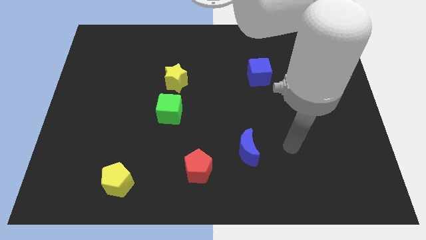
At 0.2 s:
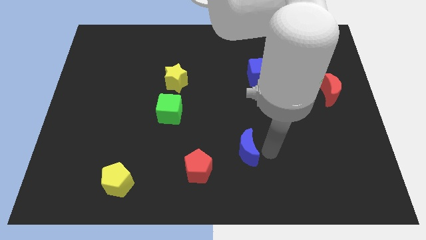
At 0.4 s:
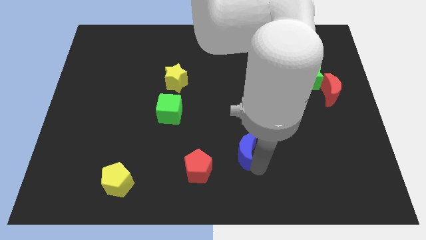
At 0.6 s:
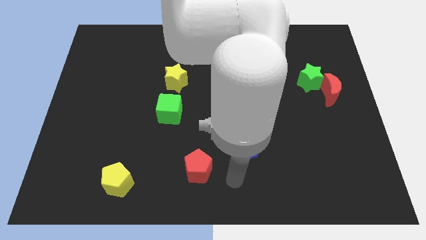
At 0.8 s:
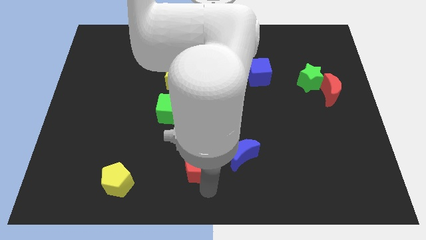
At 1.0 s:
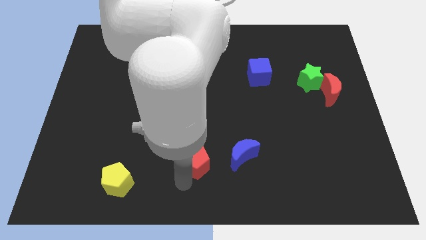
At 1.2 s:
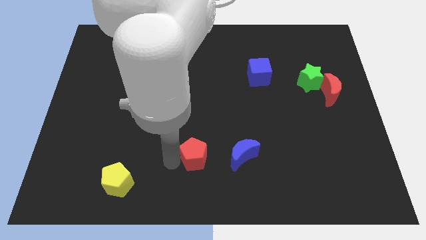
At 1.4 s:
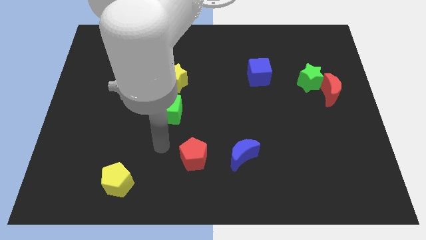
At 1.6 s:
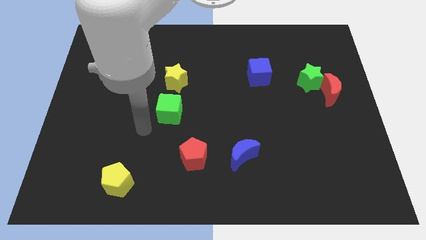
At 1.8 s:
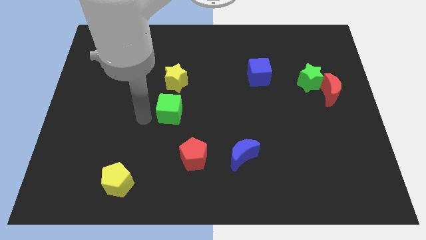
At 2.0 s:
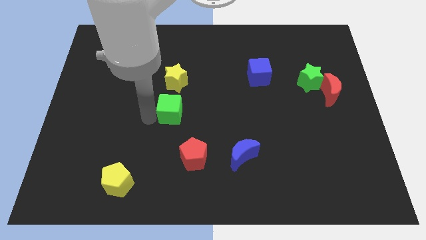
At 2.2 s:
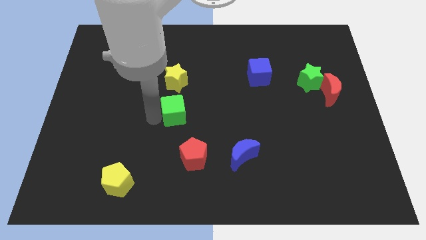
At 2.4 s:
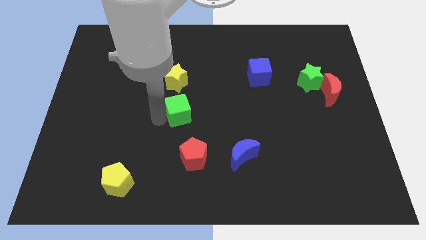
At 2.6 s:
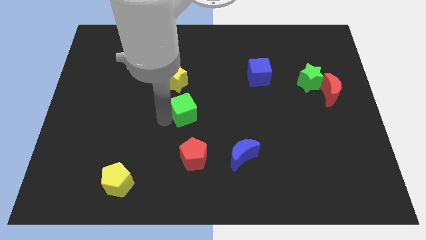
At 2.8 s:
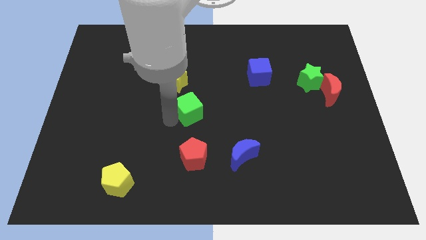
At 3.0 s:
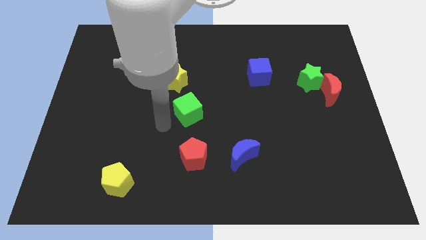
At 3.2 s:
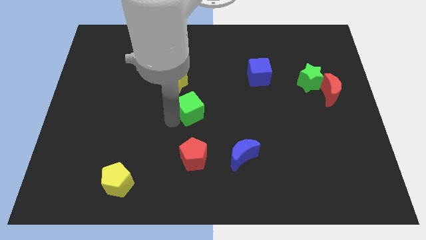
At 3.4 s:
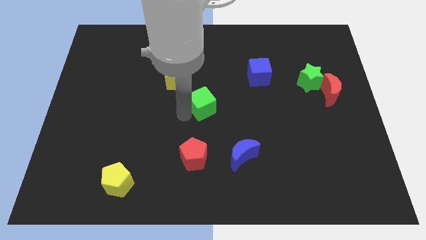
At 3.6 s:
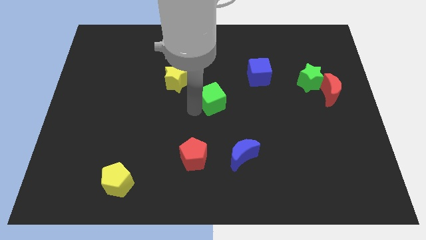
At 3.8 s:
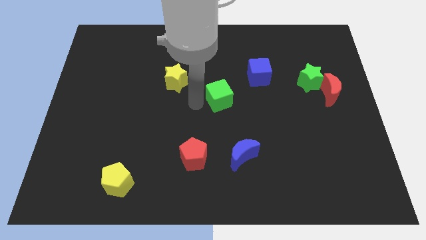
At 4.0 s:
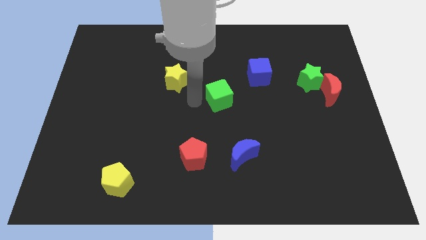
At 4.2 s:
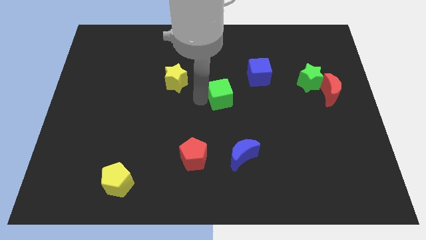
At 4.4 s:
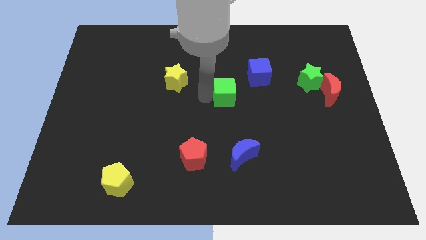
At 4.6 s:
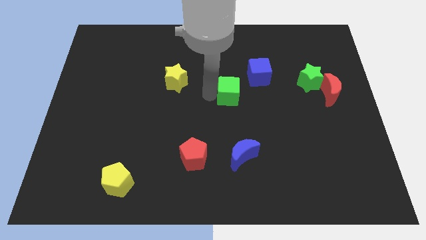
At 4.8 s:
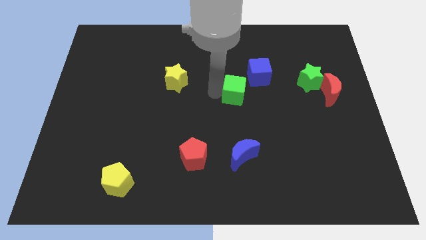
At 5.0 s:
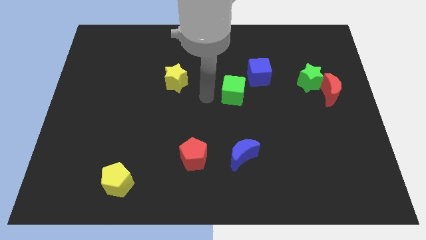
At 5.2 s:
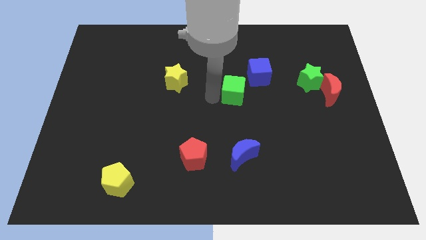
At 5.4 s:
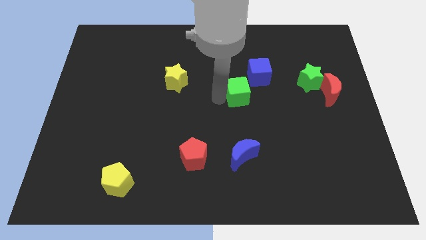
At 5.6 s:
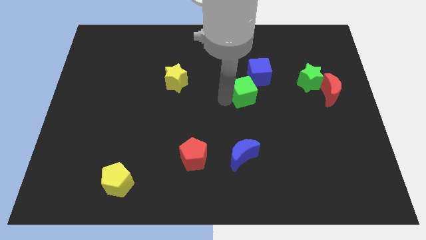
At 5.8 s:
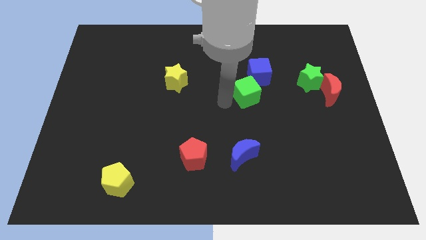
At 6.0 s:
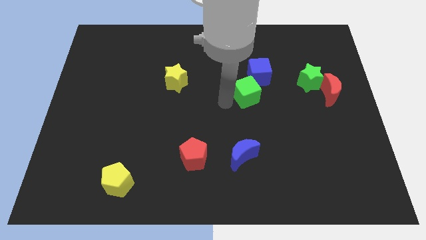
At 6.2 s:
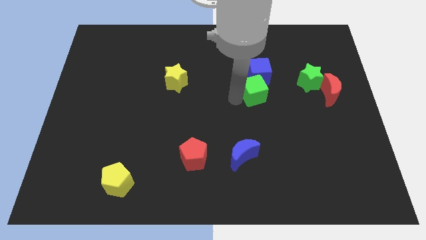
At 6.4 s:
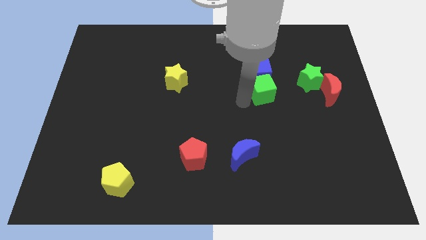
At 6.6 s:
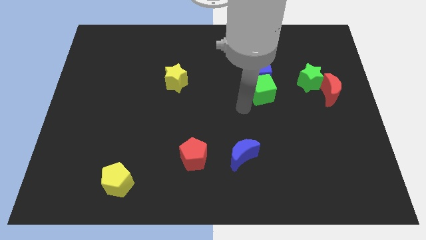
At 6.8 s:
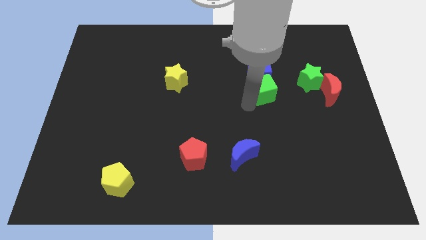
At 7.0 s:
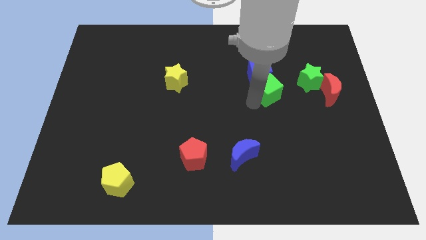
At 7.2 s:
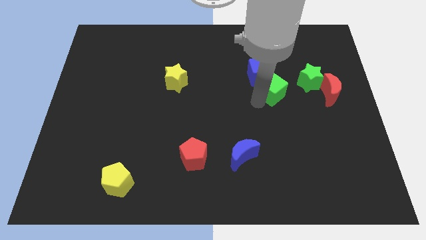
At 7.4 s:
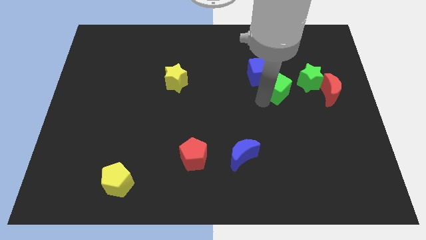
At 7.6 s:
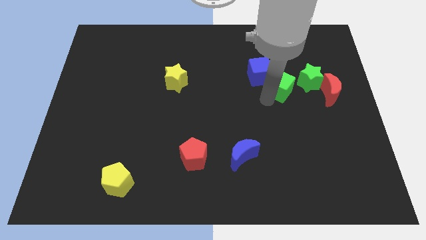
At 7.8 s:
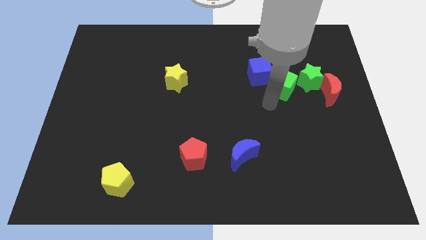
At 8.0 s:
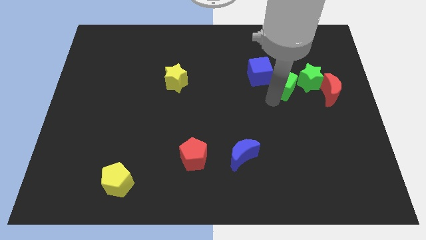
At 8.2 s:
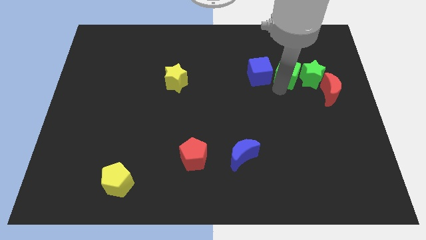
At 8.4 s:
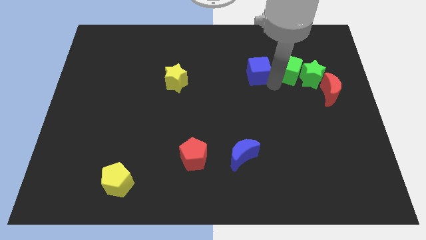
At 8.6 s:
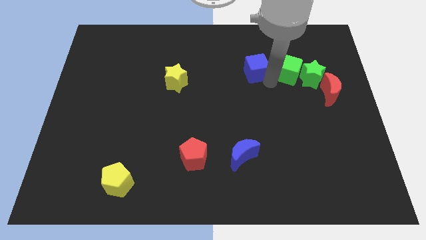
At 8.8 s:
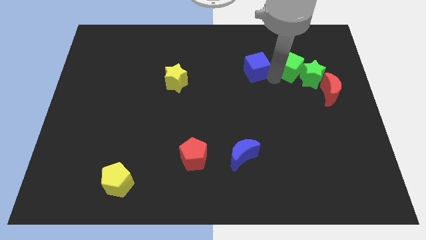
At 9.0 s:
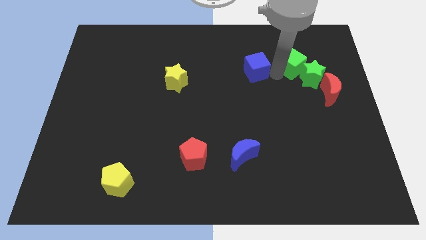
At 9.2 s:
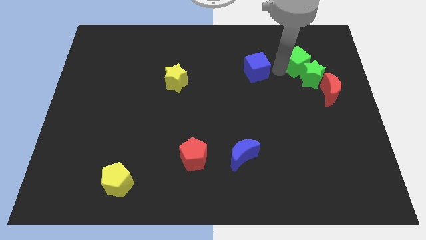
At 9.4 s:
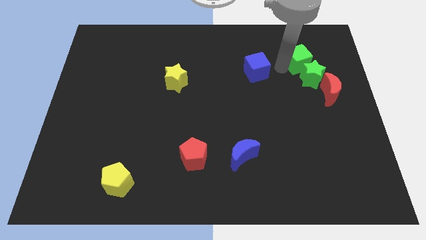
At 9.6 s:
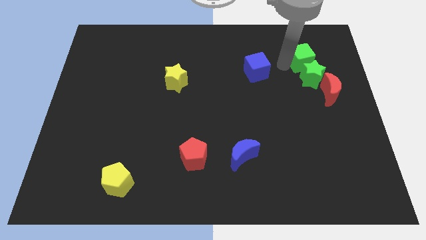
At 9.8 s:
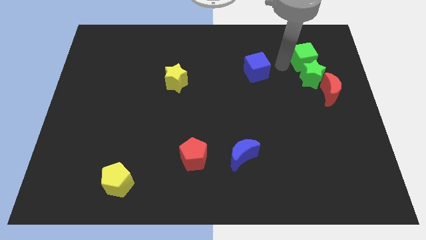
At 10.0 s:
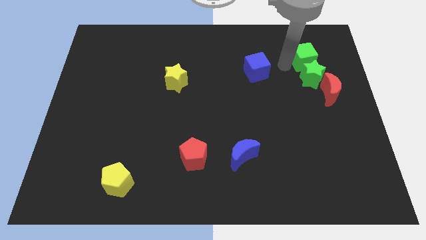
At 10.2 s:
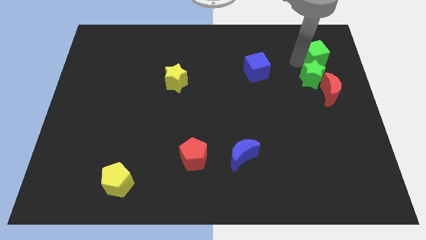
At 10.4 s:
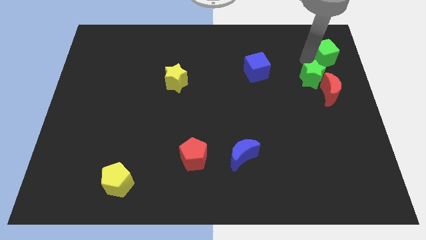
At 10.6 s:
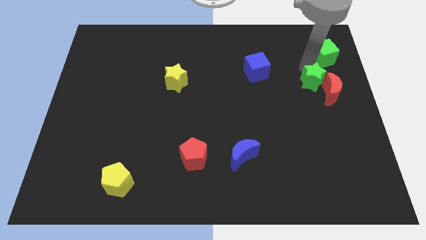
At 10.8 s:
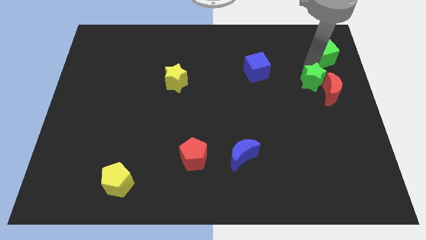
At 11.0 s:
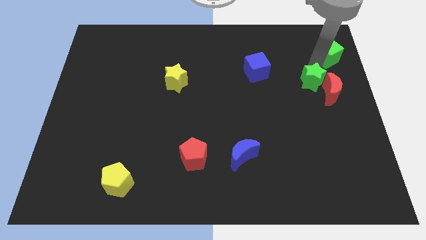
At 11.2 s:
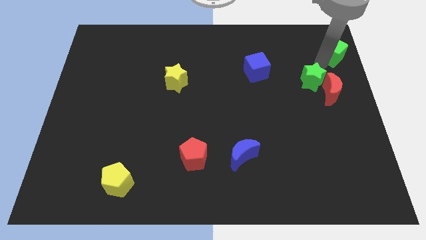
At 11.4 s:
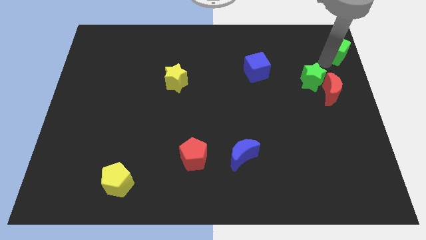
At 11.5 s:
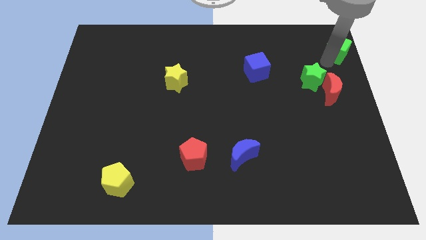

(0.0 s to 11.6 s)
slide the green cube to the top right of the board

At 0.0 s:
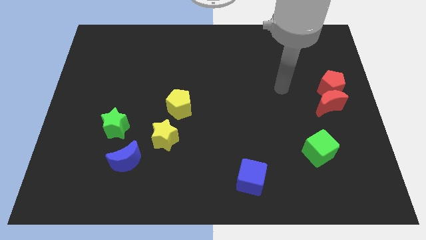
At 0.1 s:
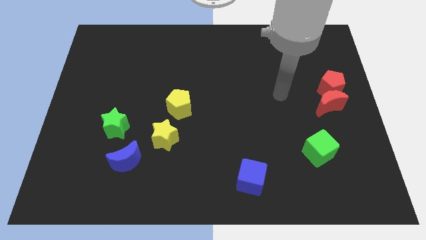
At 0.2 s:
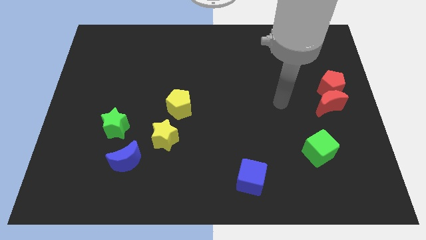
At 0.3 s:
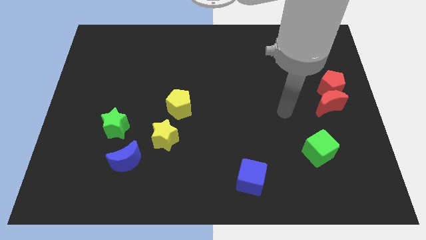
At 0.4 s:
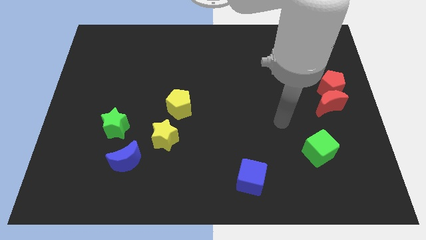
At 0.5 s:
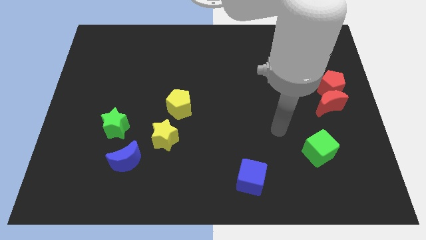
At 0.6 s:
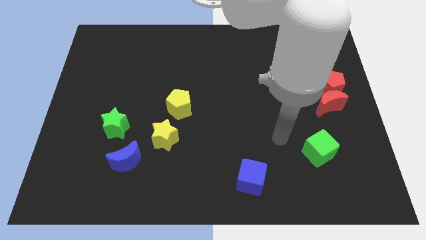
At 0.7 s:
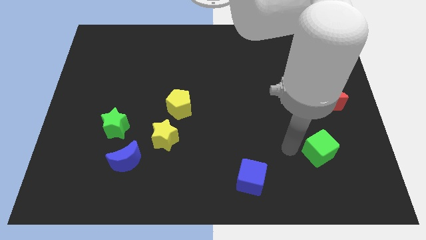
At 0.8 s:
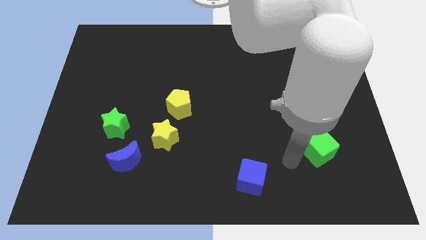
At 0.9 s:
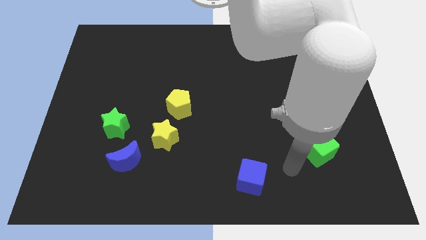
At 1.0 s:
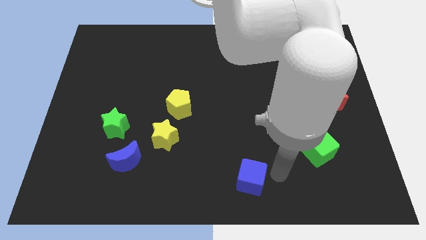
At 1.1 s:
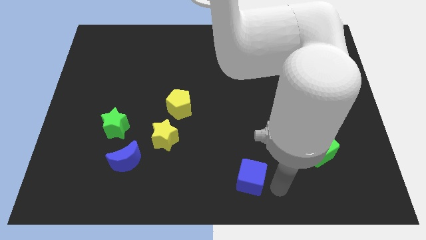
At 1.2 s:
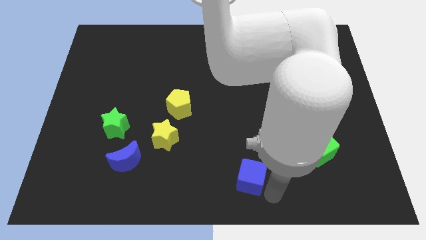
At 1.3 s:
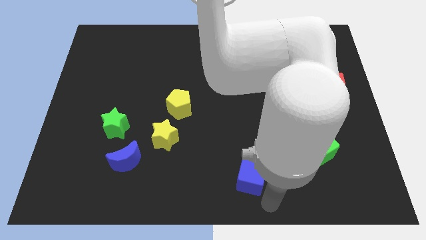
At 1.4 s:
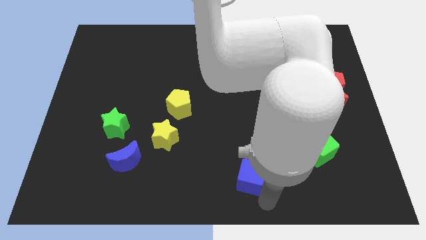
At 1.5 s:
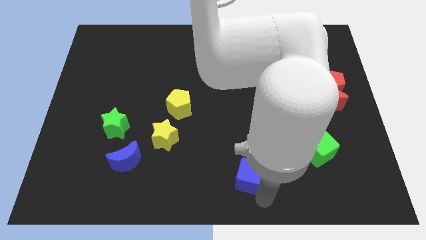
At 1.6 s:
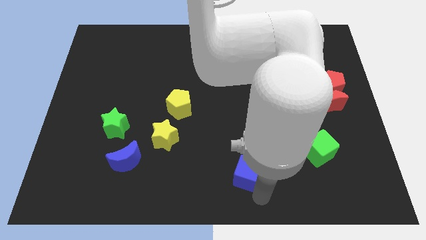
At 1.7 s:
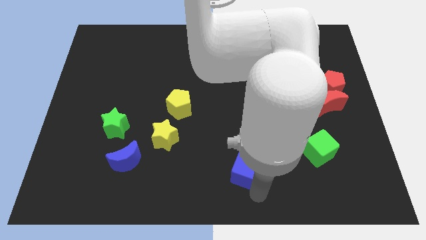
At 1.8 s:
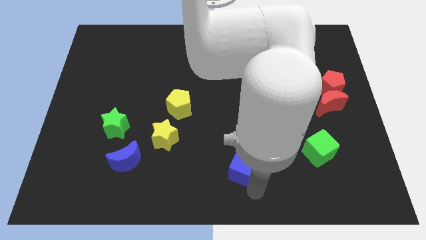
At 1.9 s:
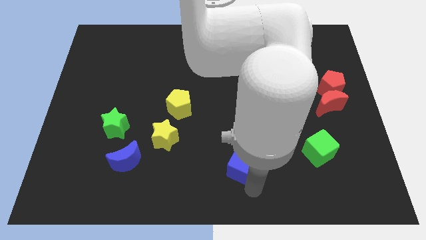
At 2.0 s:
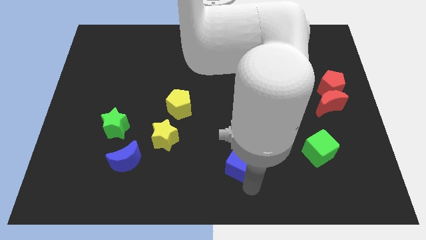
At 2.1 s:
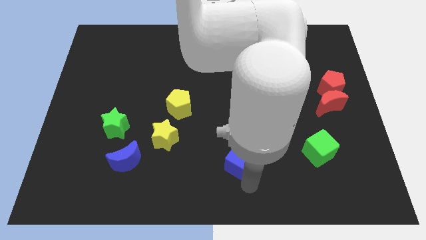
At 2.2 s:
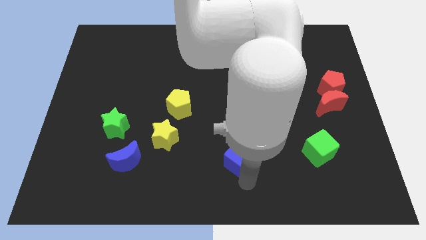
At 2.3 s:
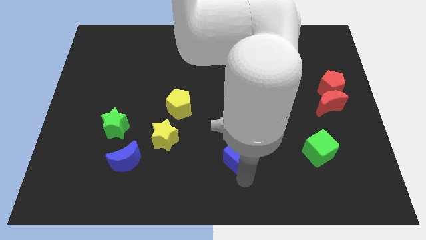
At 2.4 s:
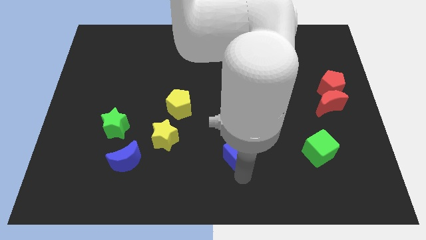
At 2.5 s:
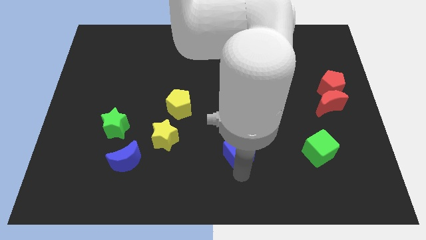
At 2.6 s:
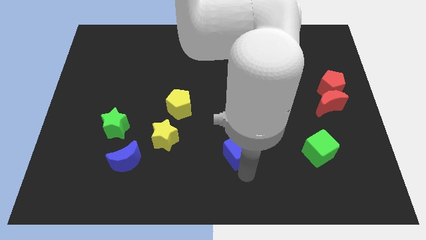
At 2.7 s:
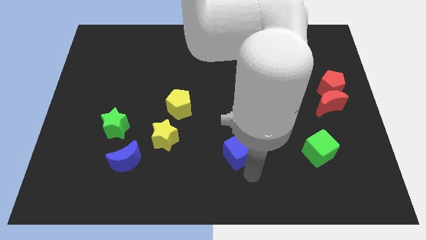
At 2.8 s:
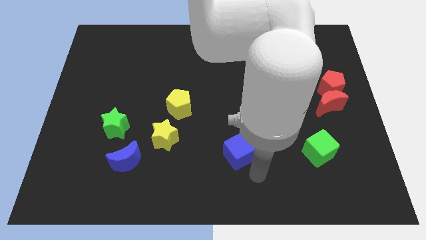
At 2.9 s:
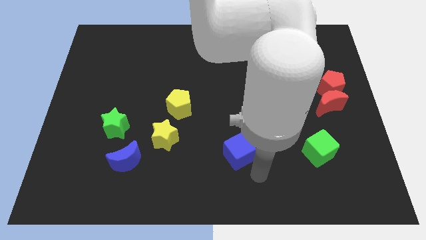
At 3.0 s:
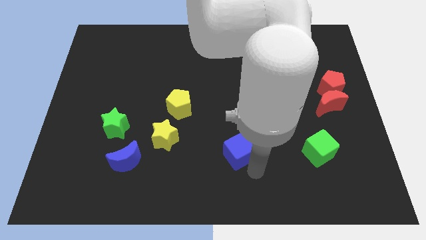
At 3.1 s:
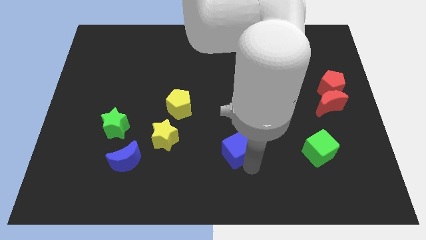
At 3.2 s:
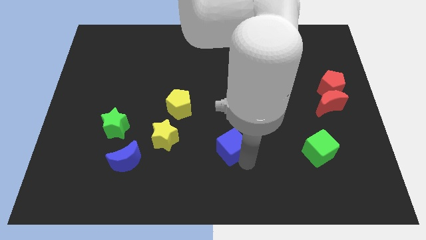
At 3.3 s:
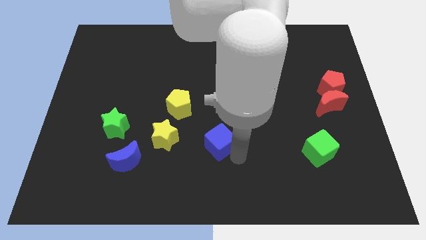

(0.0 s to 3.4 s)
put the blue cube to the middle of the board
